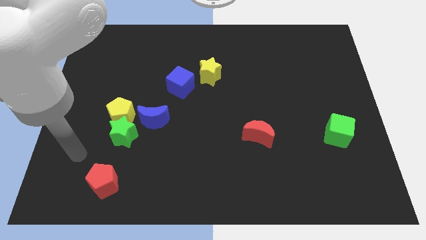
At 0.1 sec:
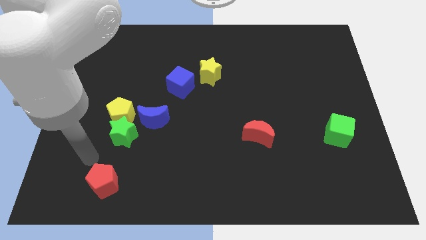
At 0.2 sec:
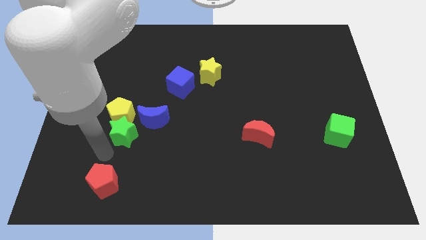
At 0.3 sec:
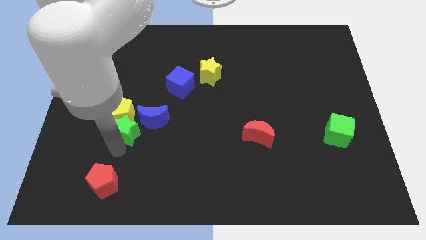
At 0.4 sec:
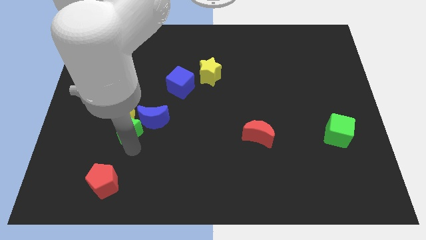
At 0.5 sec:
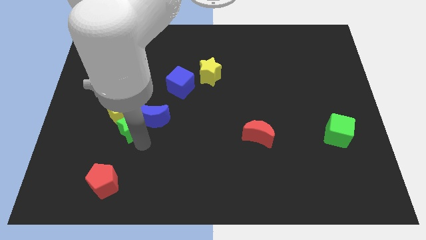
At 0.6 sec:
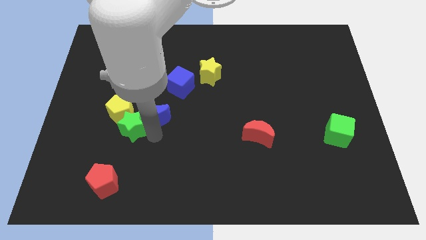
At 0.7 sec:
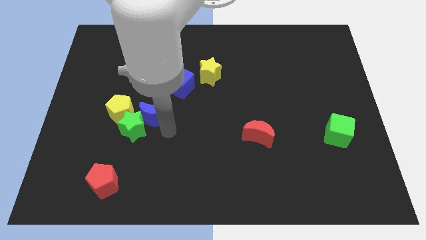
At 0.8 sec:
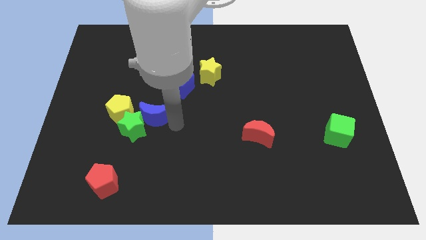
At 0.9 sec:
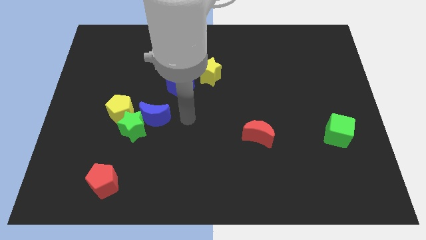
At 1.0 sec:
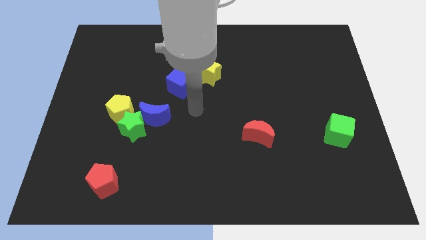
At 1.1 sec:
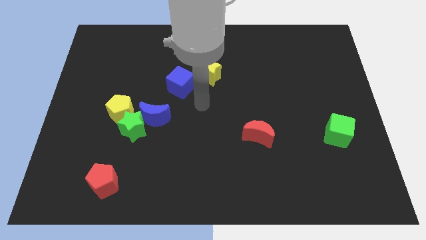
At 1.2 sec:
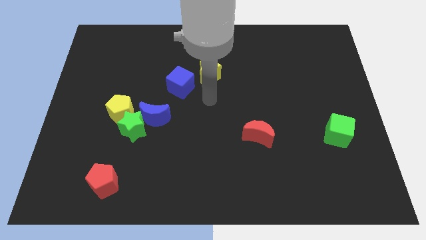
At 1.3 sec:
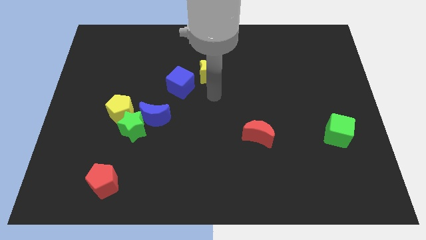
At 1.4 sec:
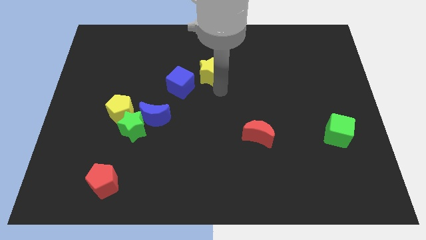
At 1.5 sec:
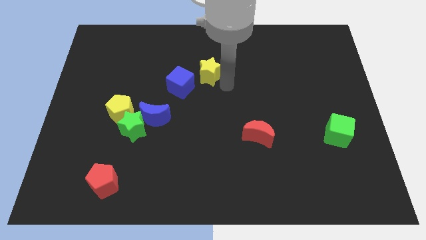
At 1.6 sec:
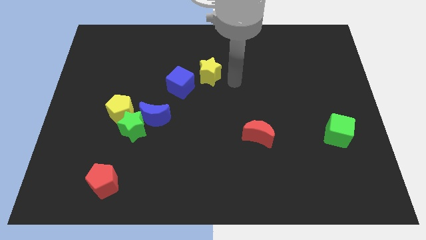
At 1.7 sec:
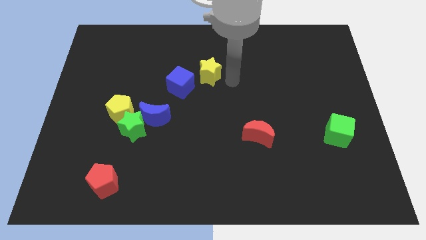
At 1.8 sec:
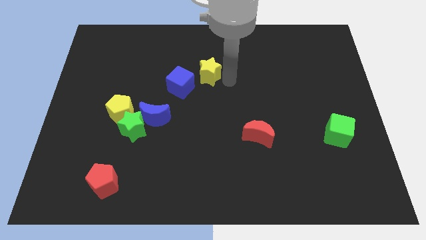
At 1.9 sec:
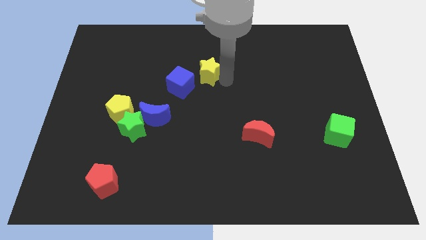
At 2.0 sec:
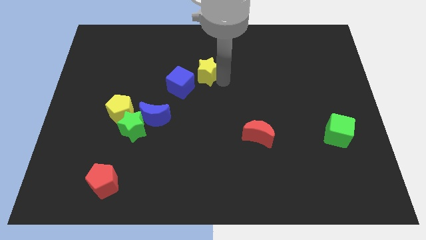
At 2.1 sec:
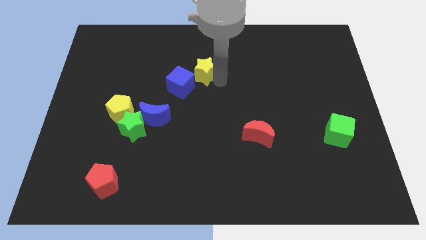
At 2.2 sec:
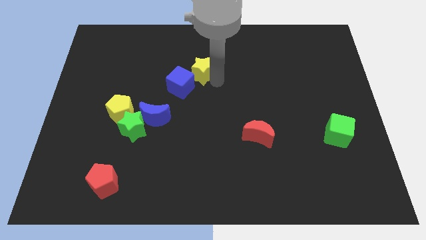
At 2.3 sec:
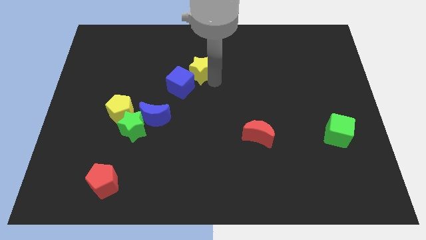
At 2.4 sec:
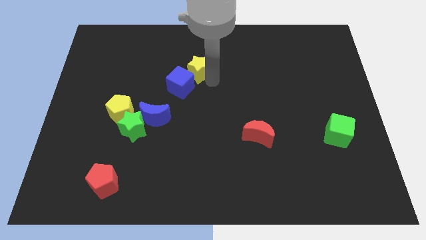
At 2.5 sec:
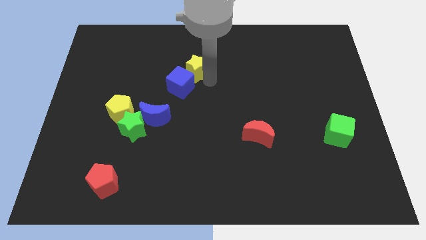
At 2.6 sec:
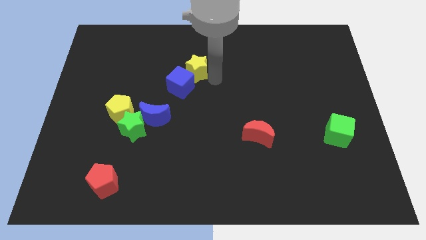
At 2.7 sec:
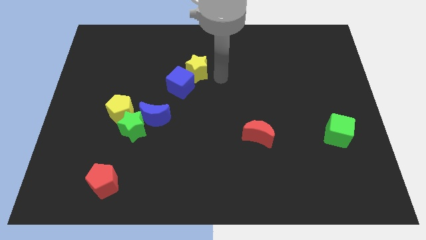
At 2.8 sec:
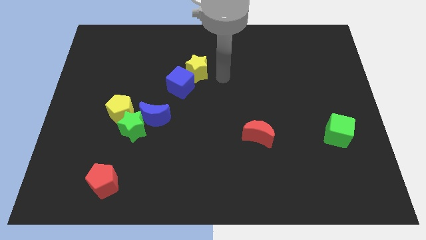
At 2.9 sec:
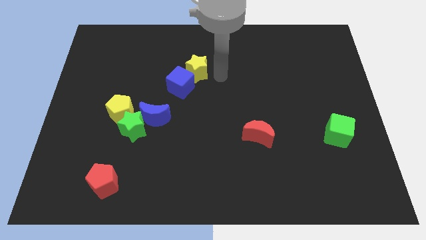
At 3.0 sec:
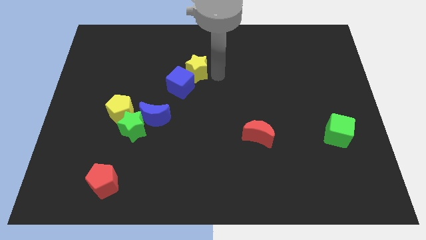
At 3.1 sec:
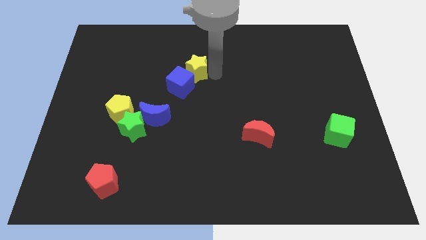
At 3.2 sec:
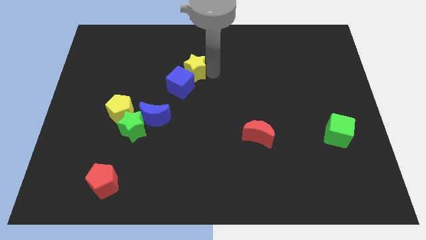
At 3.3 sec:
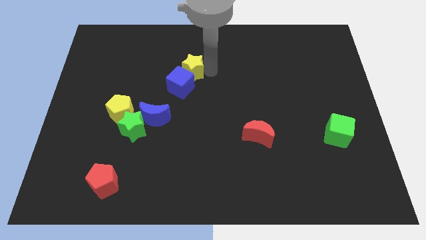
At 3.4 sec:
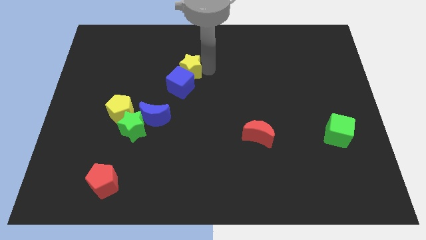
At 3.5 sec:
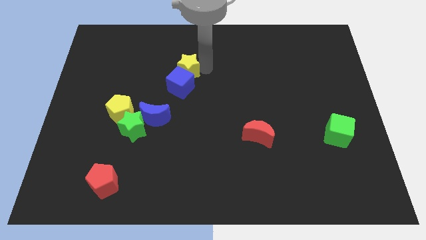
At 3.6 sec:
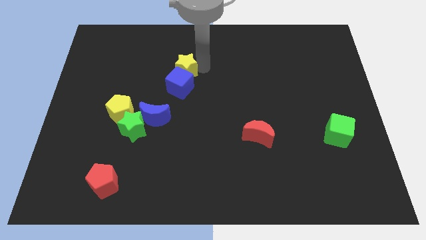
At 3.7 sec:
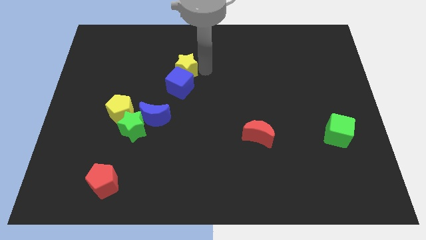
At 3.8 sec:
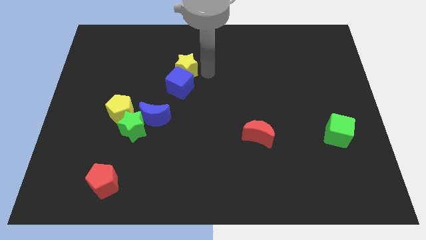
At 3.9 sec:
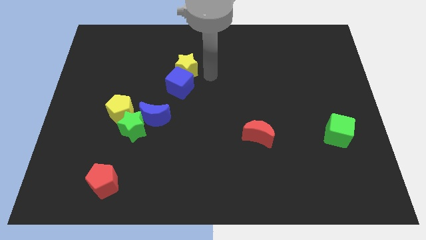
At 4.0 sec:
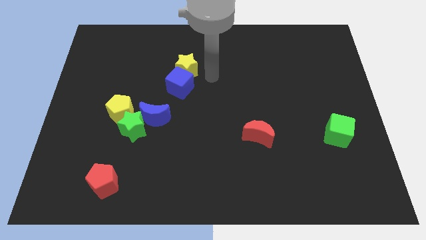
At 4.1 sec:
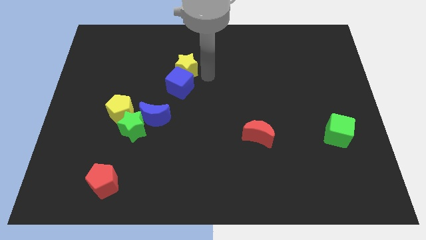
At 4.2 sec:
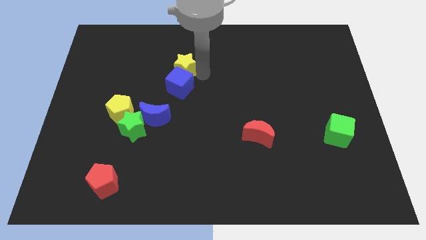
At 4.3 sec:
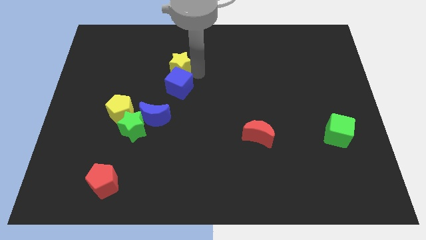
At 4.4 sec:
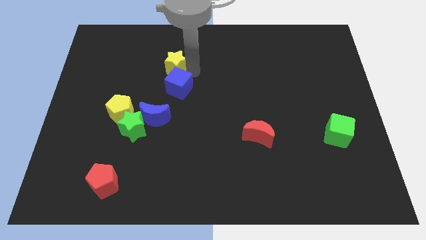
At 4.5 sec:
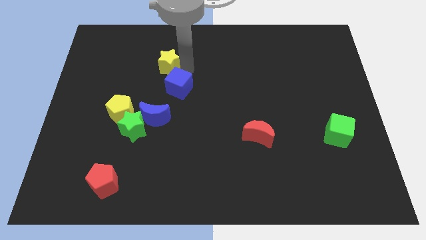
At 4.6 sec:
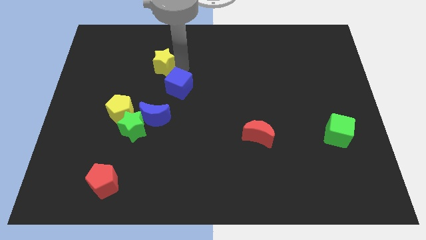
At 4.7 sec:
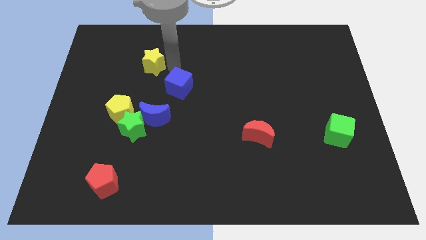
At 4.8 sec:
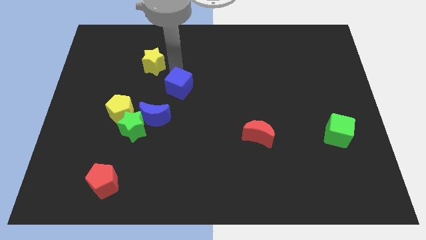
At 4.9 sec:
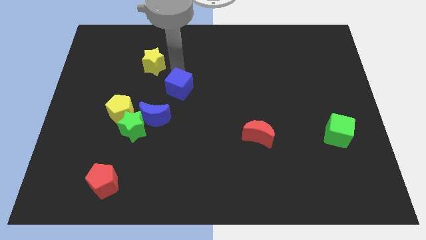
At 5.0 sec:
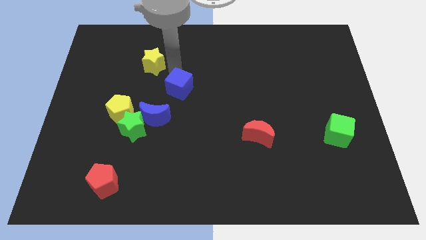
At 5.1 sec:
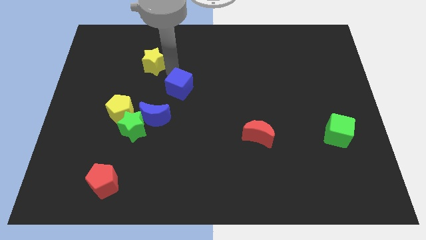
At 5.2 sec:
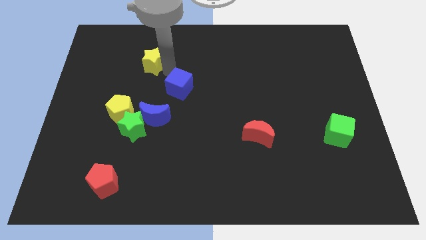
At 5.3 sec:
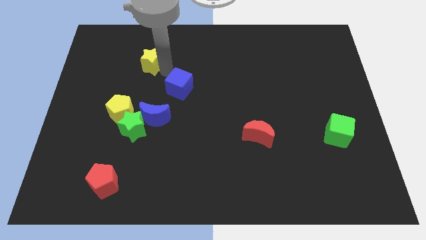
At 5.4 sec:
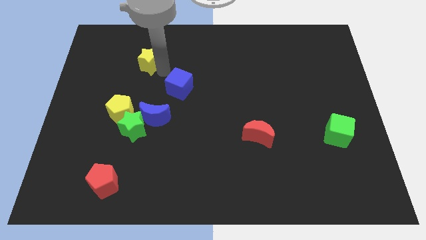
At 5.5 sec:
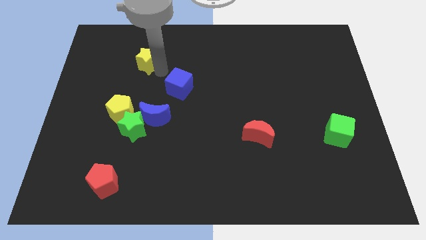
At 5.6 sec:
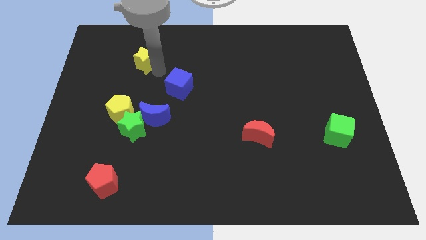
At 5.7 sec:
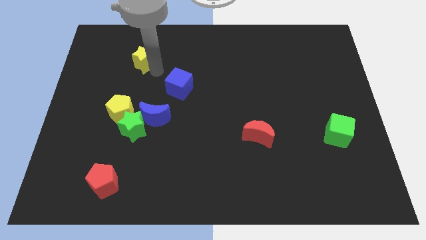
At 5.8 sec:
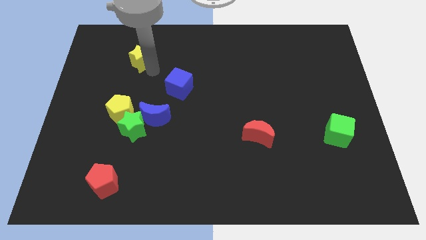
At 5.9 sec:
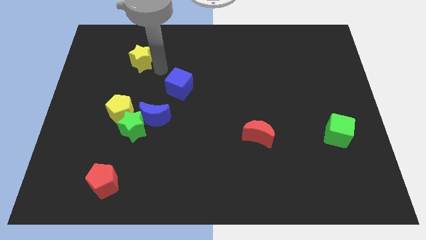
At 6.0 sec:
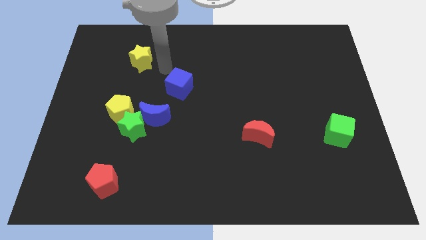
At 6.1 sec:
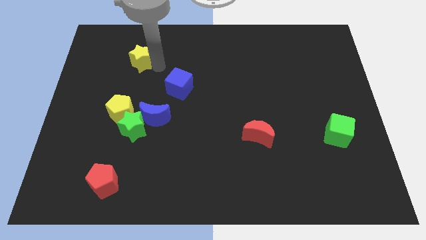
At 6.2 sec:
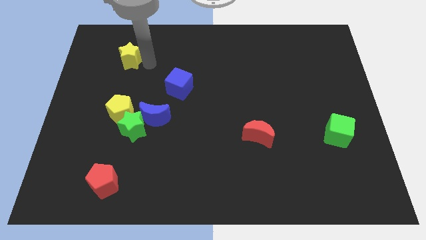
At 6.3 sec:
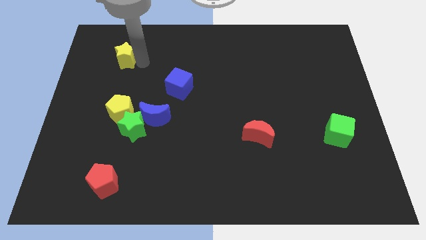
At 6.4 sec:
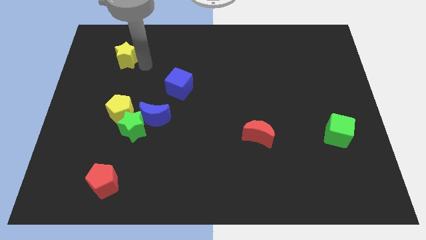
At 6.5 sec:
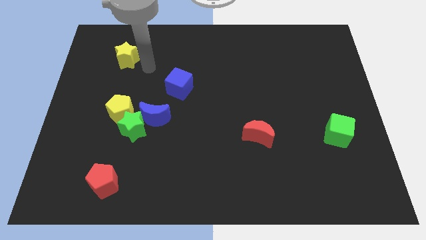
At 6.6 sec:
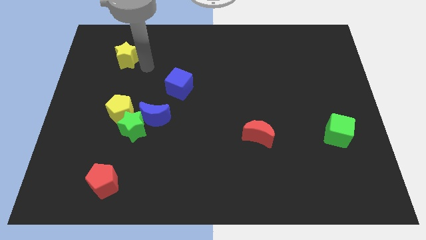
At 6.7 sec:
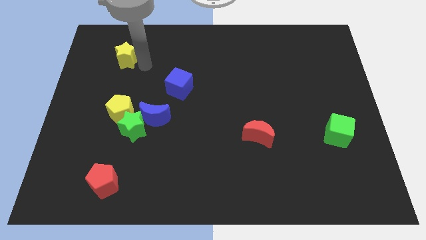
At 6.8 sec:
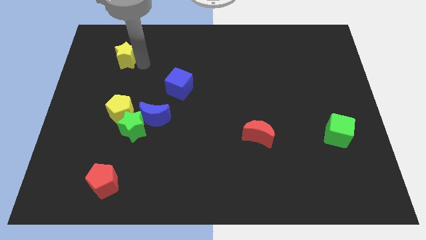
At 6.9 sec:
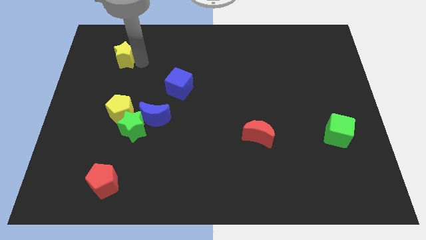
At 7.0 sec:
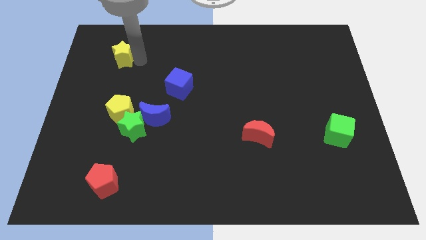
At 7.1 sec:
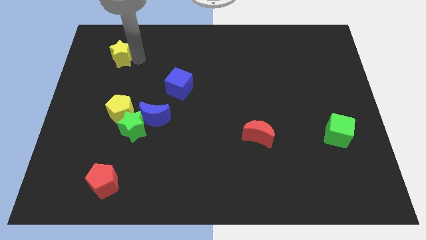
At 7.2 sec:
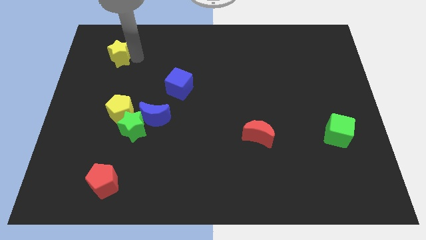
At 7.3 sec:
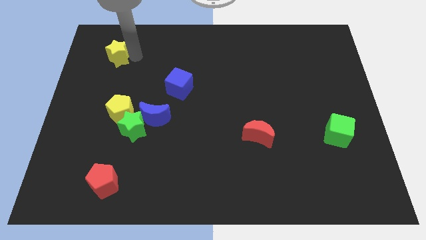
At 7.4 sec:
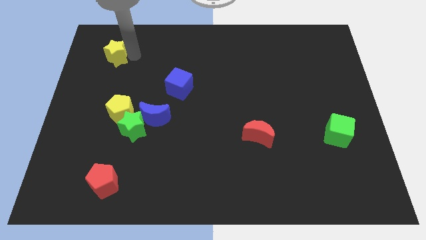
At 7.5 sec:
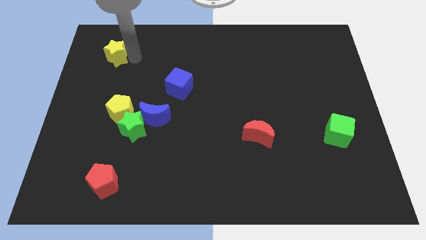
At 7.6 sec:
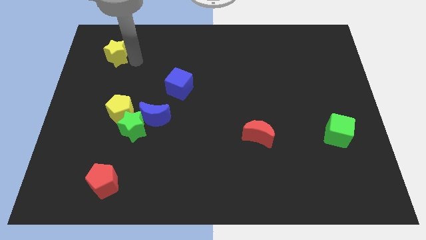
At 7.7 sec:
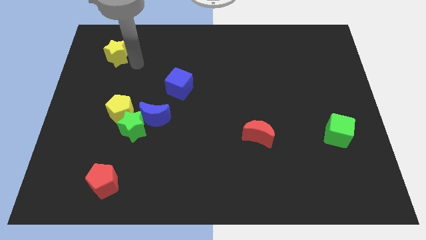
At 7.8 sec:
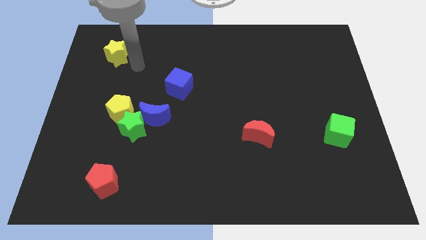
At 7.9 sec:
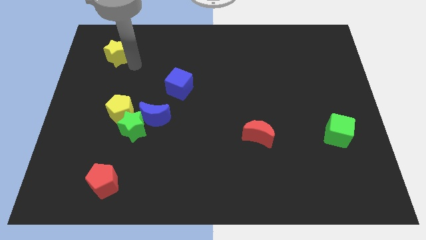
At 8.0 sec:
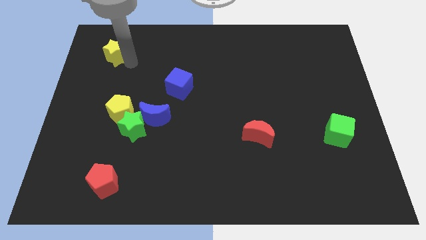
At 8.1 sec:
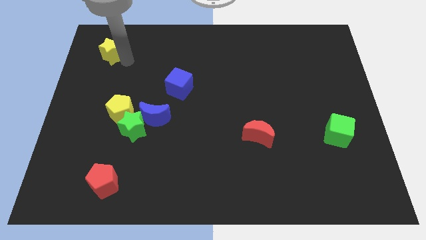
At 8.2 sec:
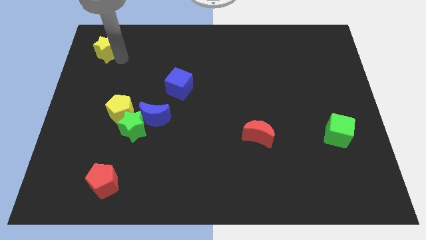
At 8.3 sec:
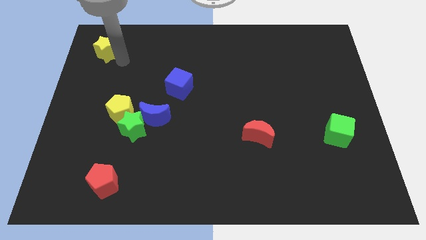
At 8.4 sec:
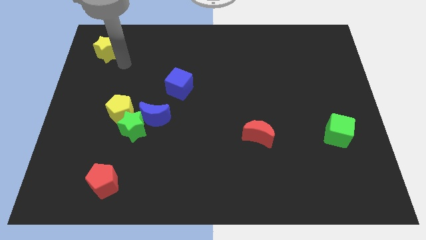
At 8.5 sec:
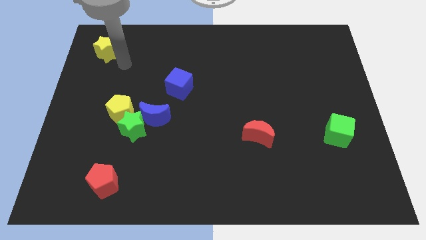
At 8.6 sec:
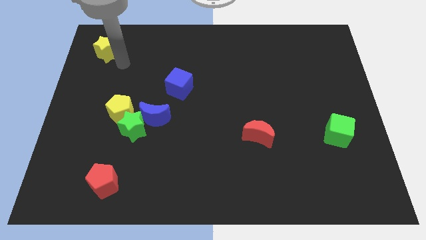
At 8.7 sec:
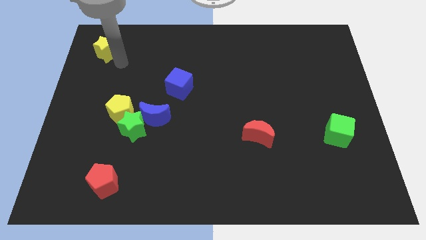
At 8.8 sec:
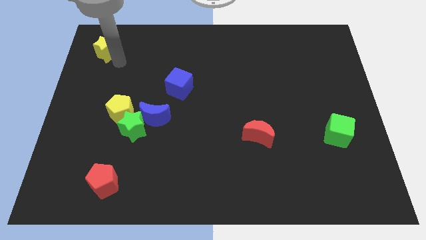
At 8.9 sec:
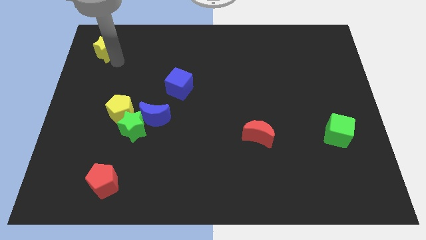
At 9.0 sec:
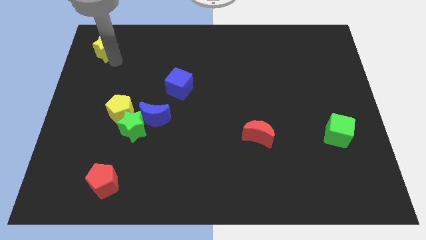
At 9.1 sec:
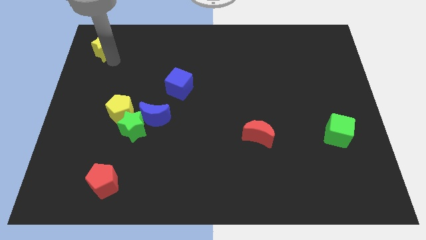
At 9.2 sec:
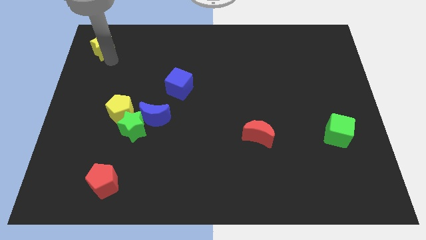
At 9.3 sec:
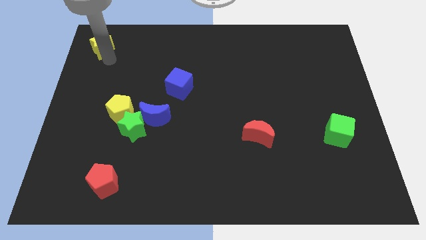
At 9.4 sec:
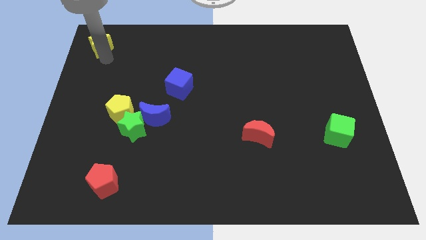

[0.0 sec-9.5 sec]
move the yellow star to the top left corner
